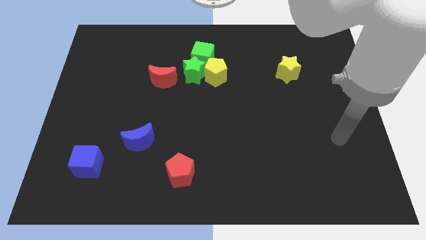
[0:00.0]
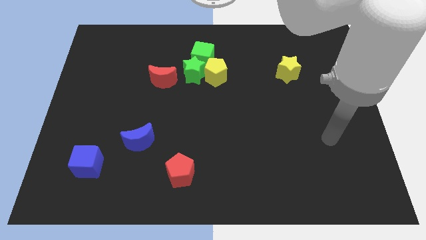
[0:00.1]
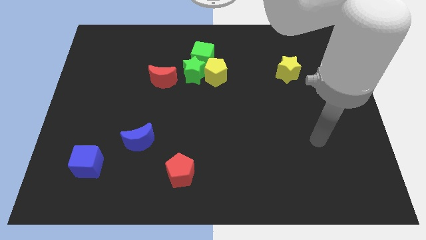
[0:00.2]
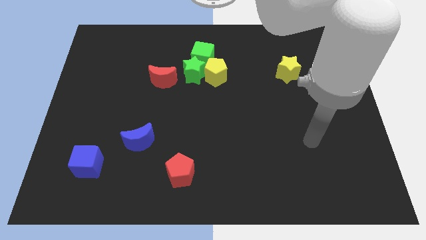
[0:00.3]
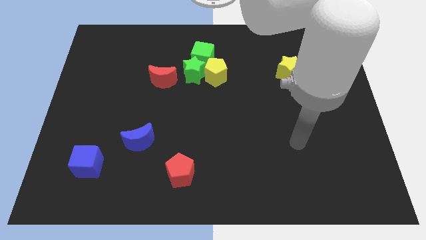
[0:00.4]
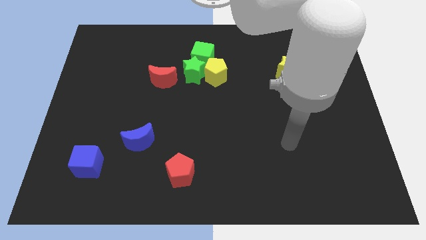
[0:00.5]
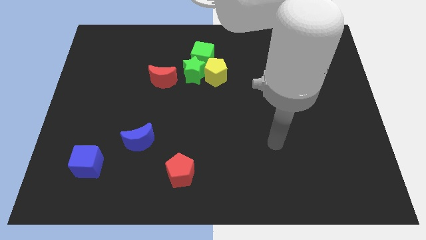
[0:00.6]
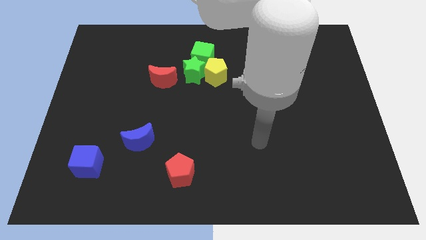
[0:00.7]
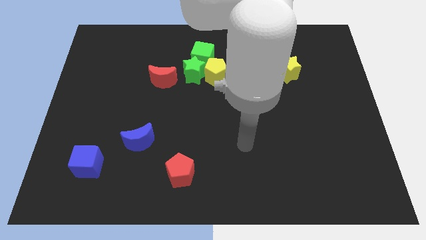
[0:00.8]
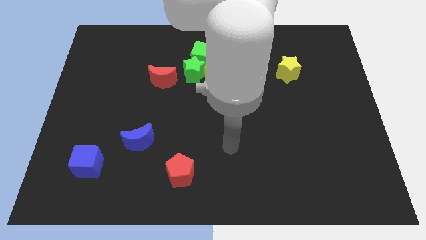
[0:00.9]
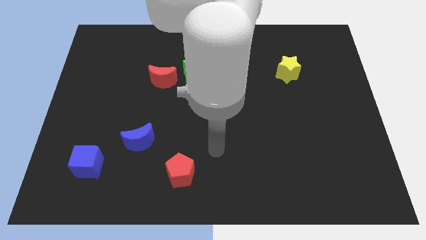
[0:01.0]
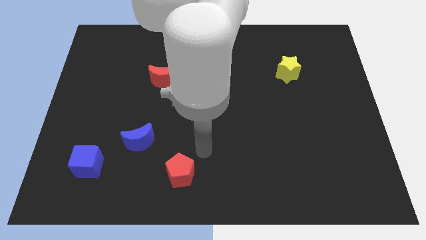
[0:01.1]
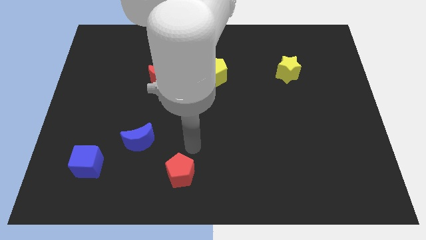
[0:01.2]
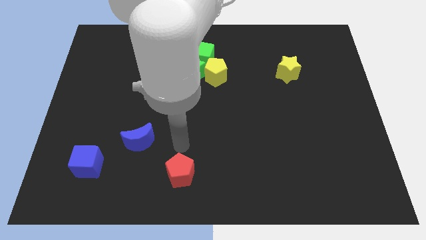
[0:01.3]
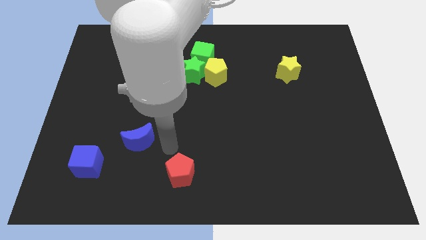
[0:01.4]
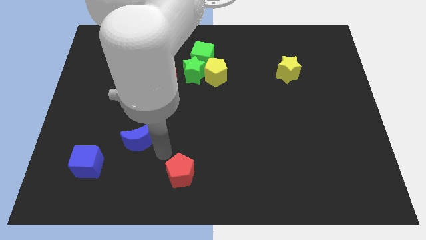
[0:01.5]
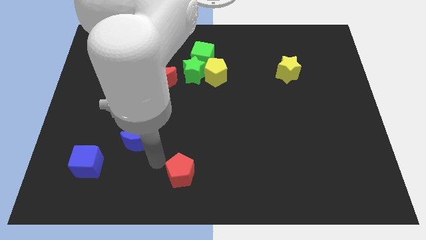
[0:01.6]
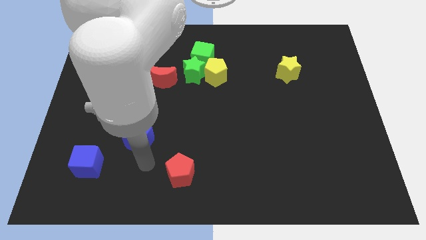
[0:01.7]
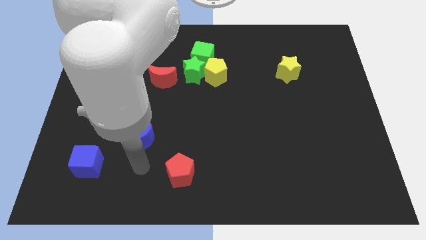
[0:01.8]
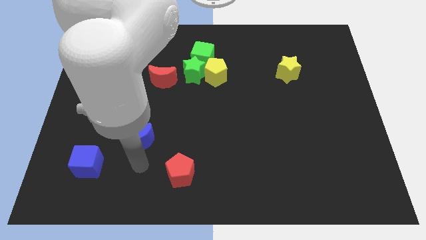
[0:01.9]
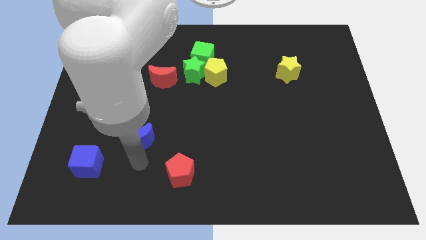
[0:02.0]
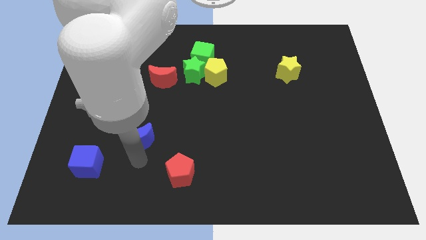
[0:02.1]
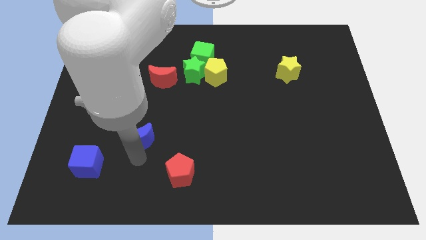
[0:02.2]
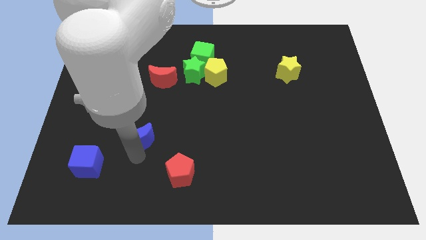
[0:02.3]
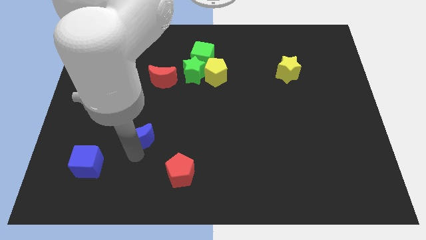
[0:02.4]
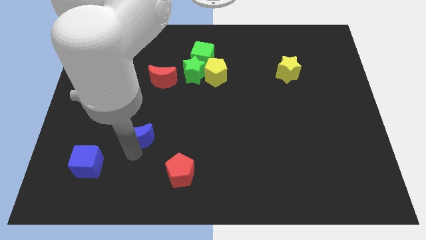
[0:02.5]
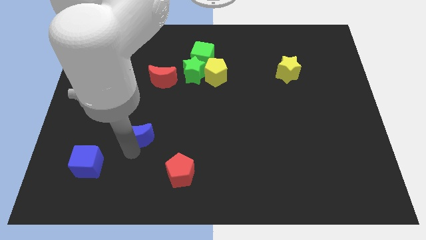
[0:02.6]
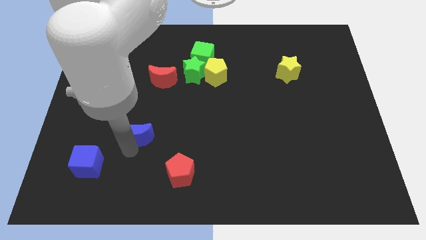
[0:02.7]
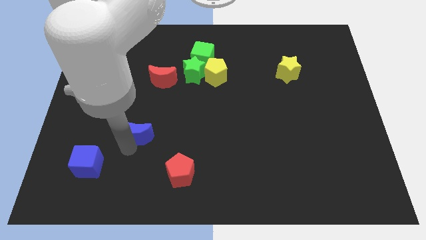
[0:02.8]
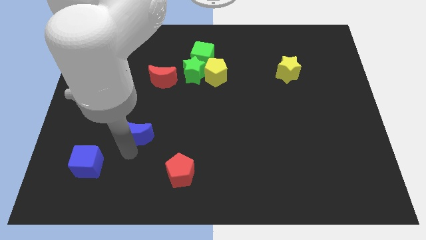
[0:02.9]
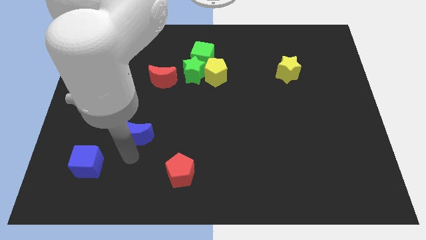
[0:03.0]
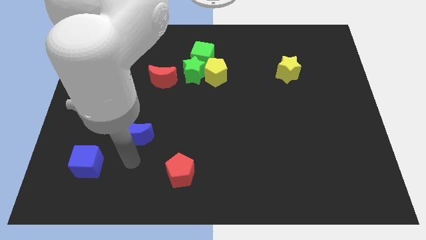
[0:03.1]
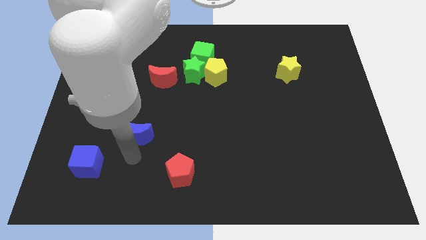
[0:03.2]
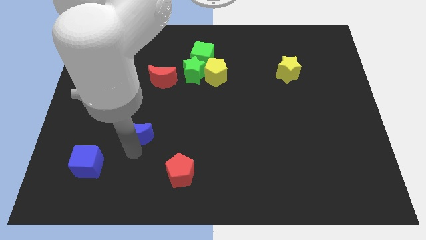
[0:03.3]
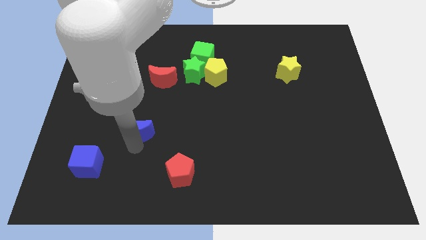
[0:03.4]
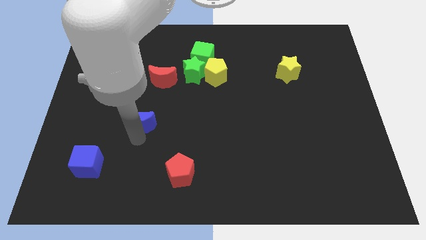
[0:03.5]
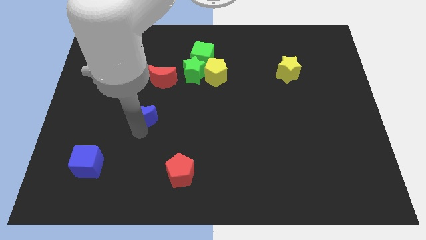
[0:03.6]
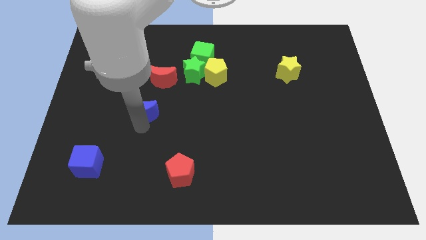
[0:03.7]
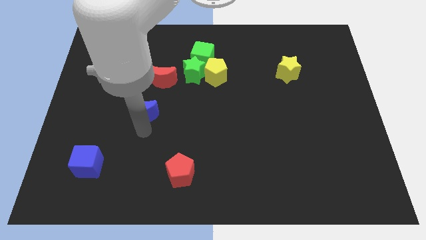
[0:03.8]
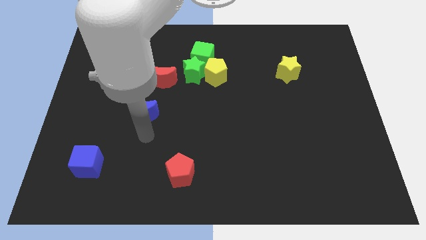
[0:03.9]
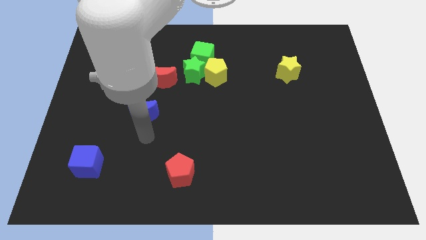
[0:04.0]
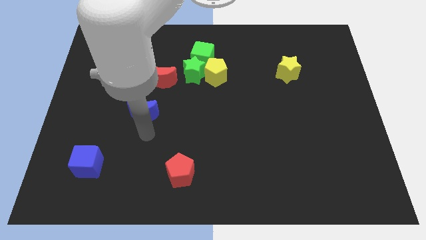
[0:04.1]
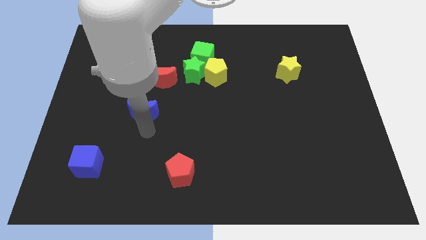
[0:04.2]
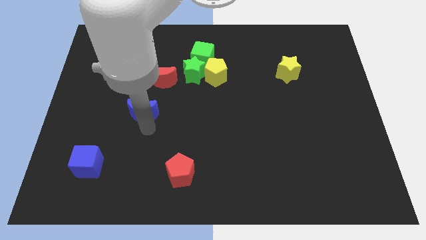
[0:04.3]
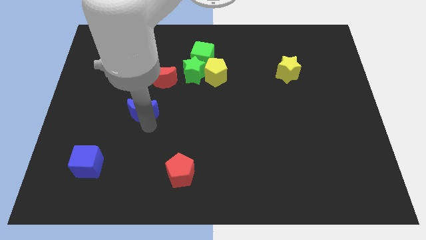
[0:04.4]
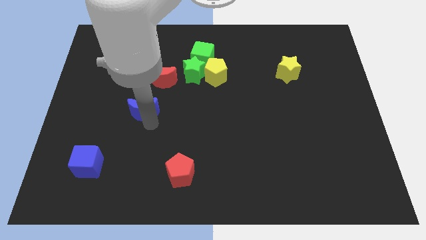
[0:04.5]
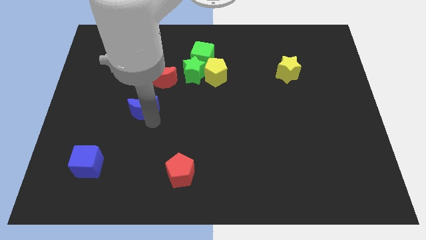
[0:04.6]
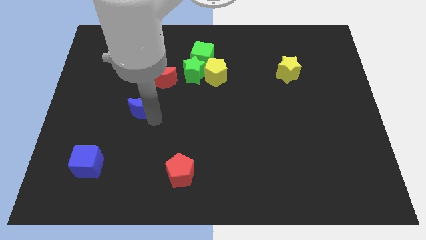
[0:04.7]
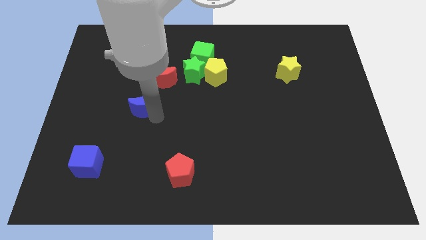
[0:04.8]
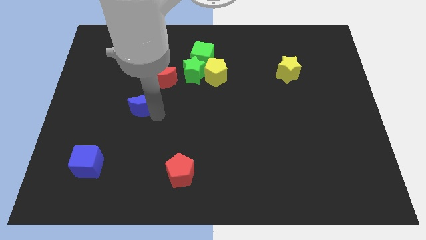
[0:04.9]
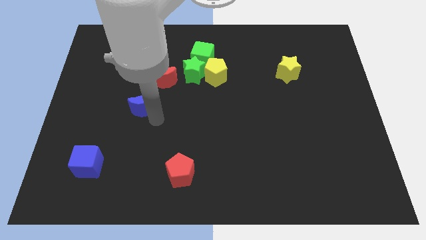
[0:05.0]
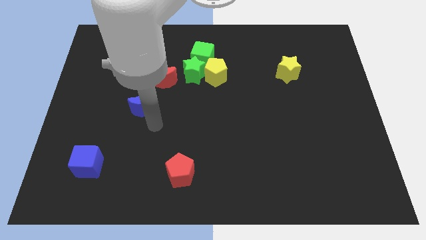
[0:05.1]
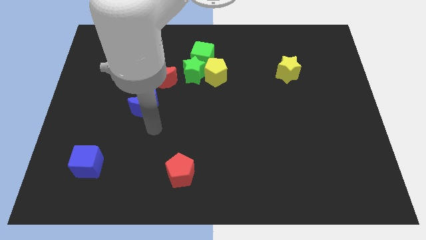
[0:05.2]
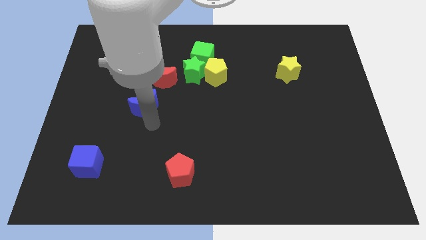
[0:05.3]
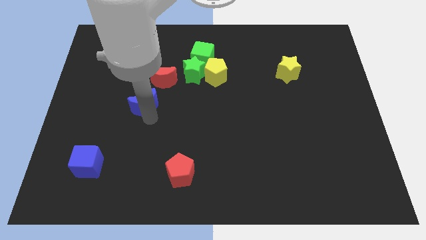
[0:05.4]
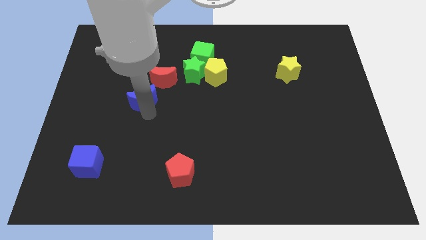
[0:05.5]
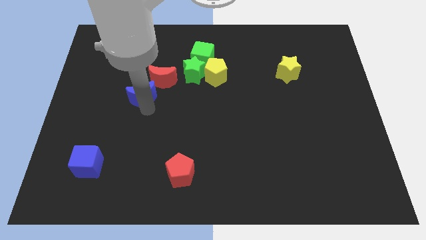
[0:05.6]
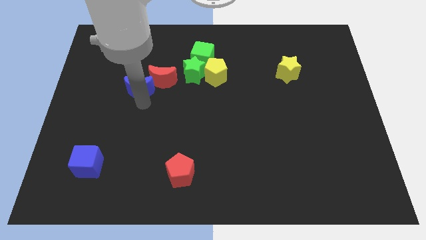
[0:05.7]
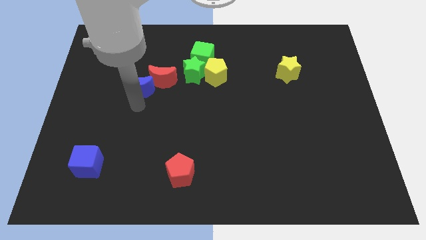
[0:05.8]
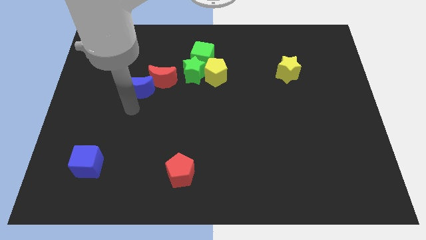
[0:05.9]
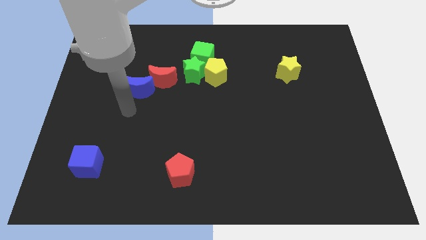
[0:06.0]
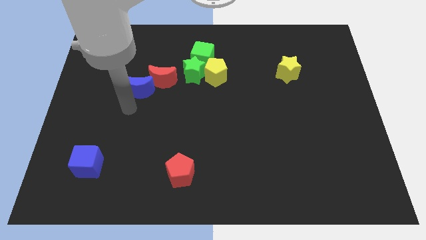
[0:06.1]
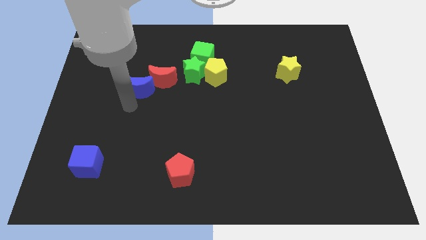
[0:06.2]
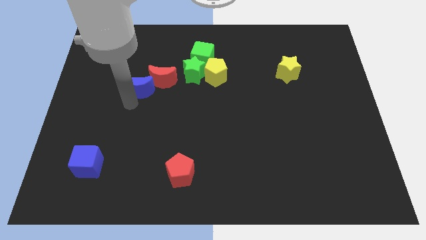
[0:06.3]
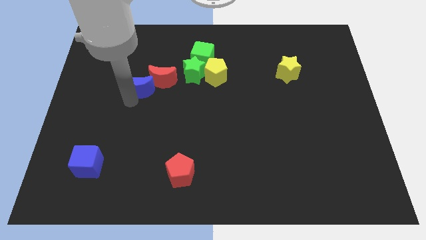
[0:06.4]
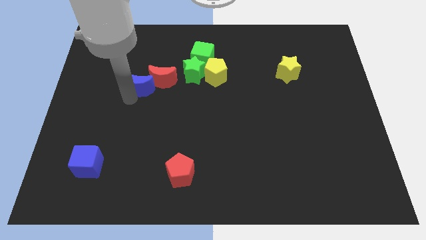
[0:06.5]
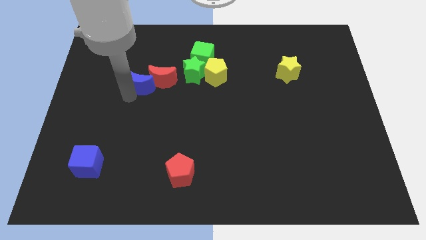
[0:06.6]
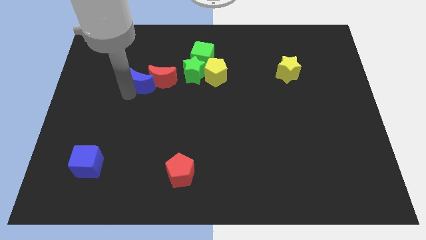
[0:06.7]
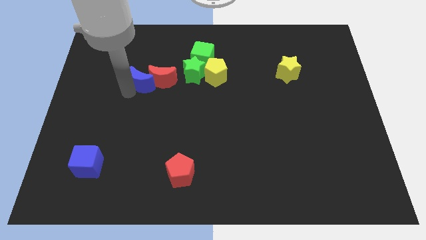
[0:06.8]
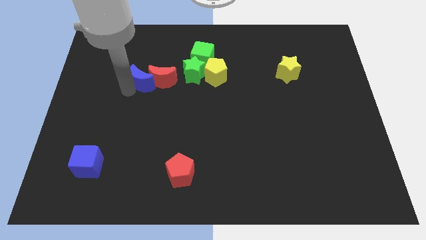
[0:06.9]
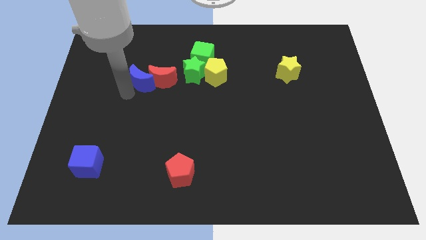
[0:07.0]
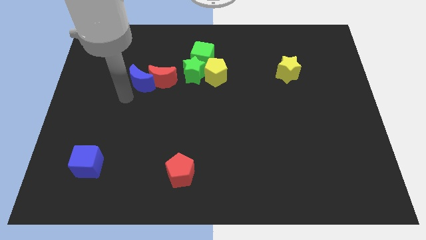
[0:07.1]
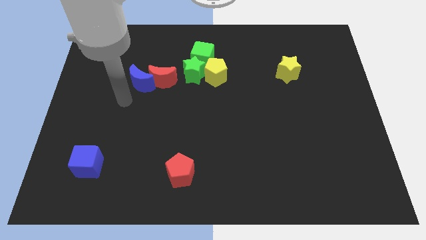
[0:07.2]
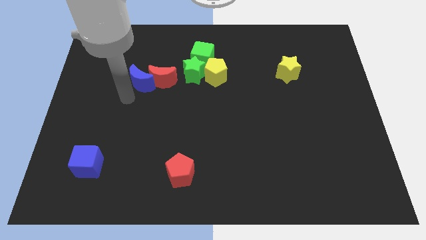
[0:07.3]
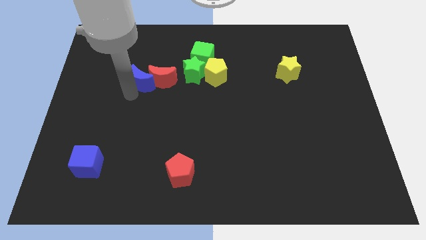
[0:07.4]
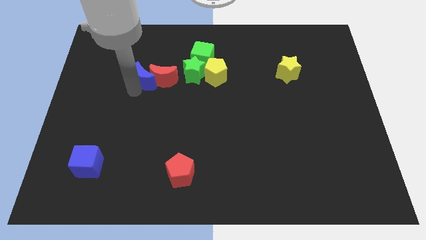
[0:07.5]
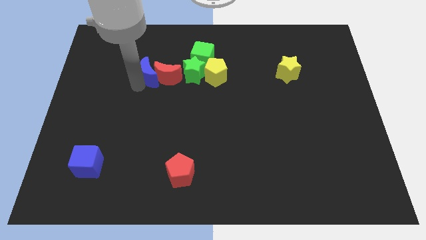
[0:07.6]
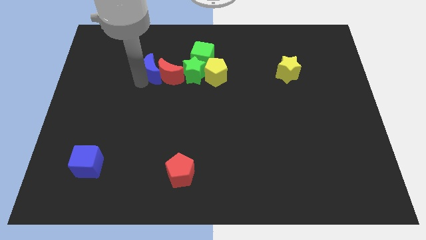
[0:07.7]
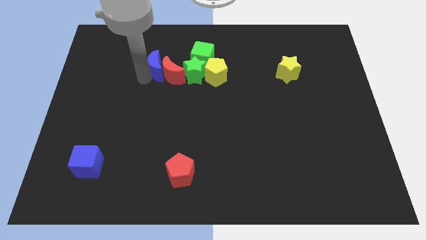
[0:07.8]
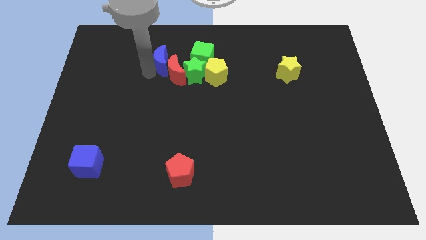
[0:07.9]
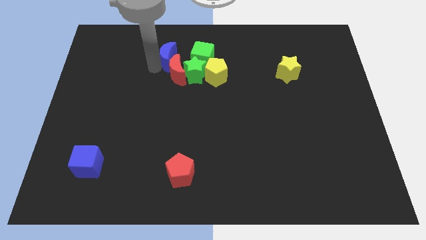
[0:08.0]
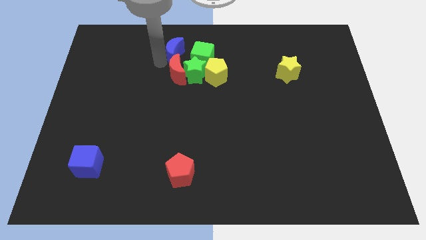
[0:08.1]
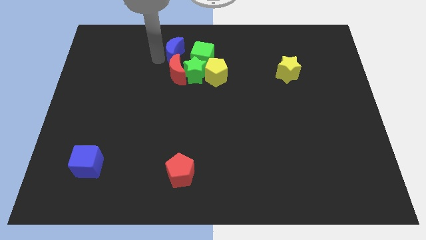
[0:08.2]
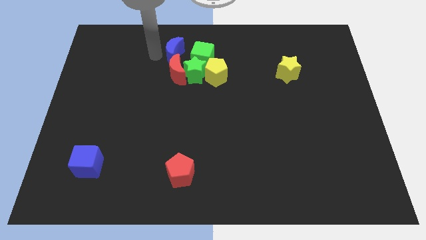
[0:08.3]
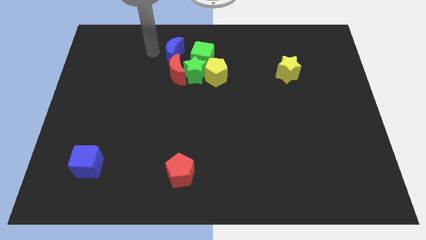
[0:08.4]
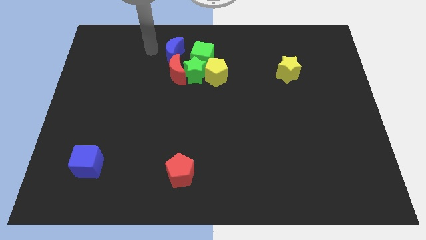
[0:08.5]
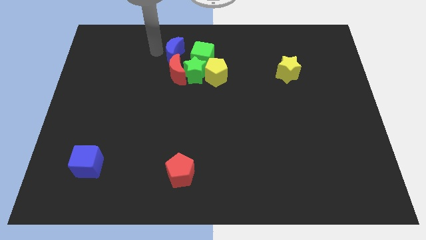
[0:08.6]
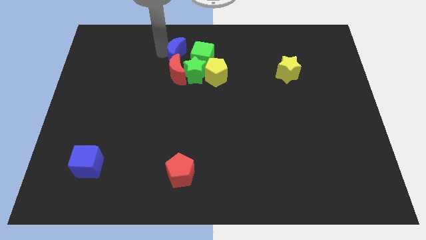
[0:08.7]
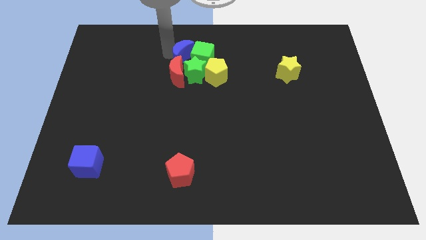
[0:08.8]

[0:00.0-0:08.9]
put the blue moon diagonally up and to the right of the red moon
